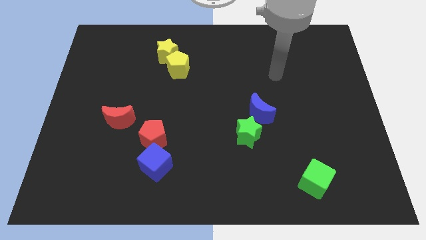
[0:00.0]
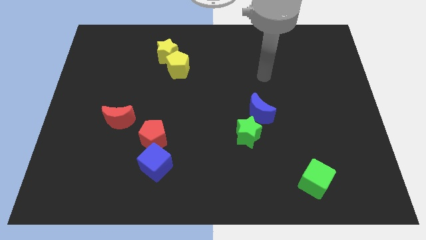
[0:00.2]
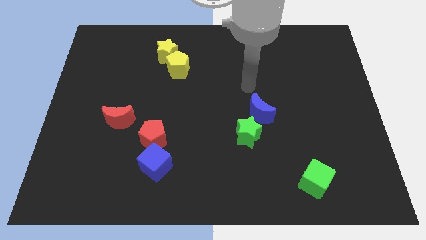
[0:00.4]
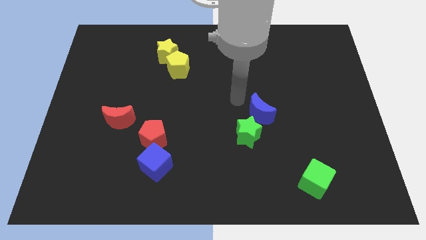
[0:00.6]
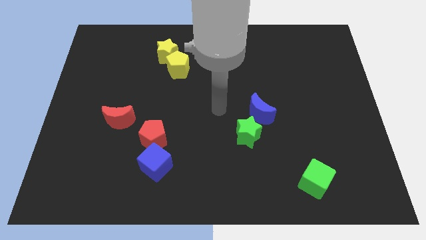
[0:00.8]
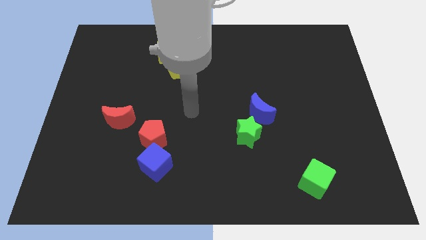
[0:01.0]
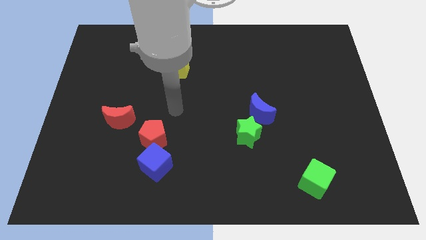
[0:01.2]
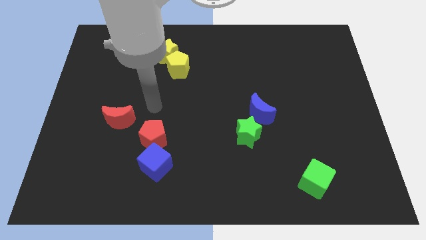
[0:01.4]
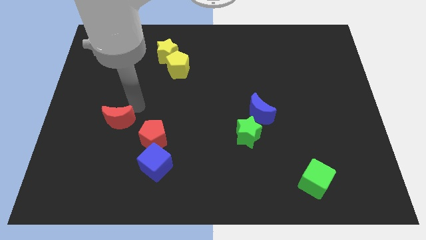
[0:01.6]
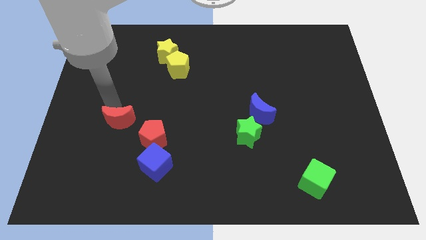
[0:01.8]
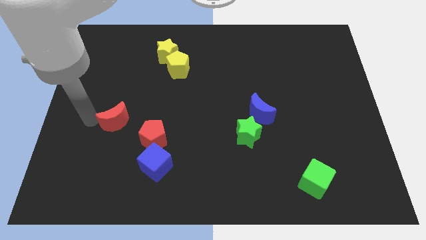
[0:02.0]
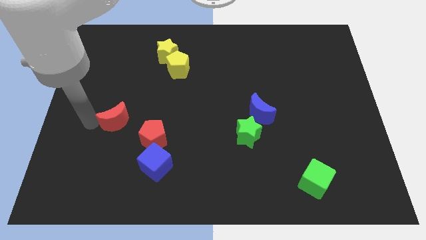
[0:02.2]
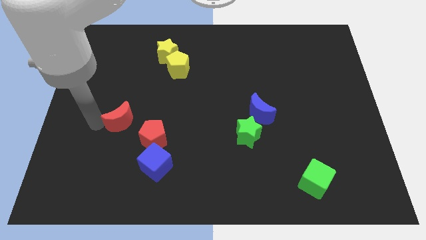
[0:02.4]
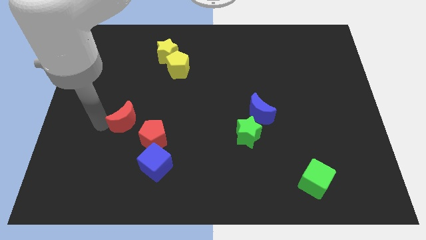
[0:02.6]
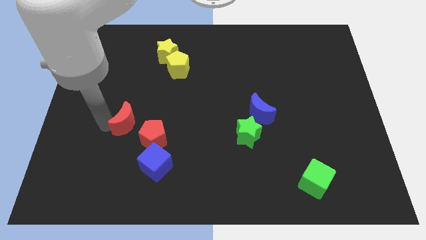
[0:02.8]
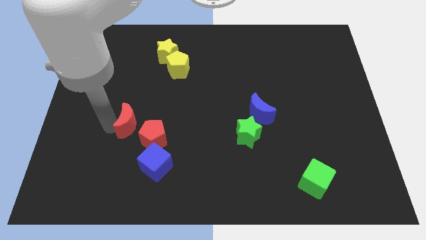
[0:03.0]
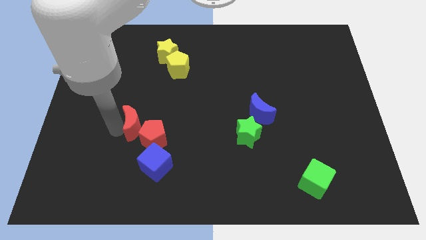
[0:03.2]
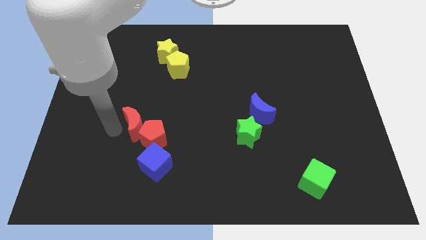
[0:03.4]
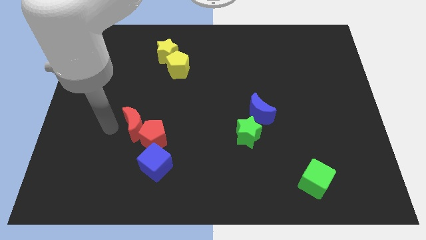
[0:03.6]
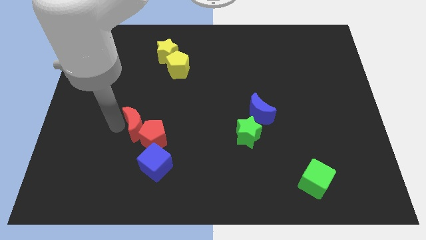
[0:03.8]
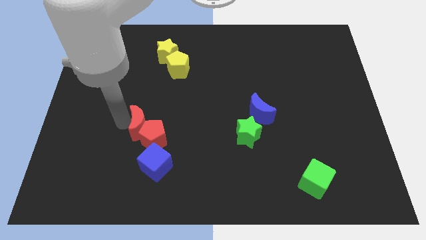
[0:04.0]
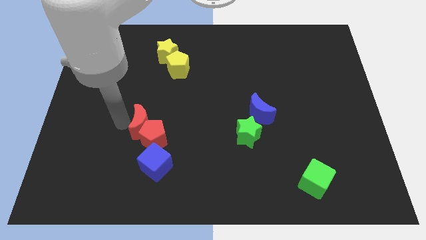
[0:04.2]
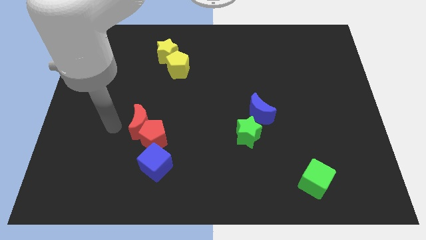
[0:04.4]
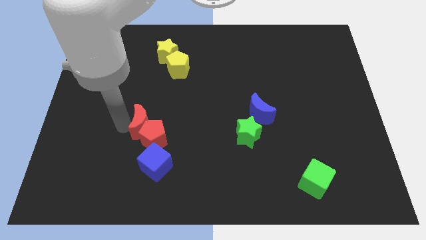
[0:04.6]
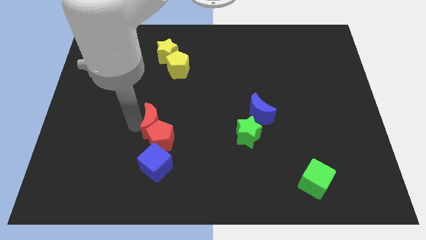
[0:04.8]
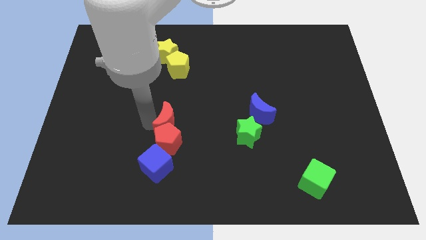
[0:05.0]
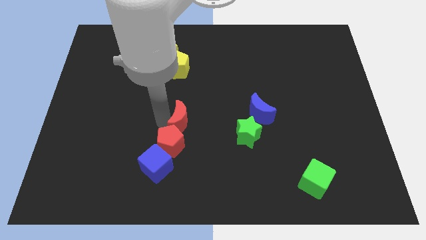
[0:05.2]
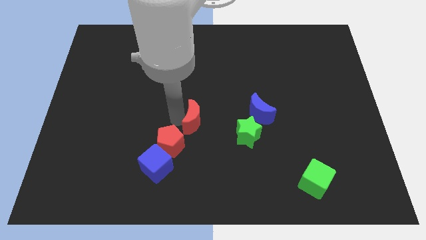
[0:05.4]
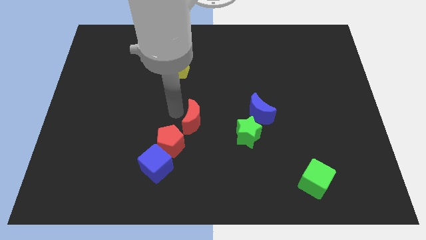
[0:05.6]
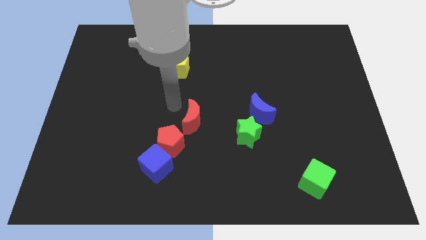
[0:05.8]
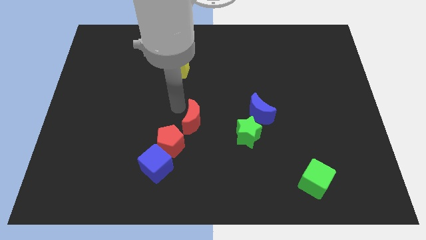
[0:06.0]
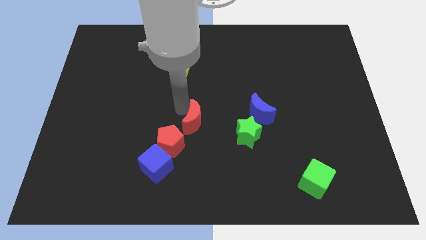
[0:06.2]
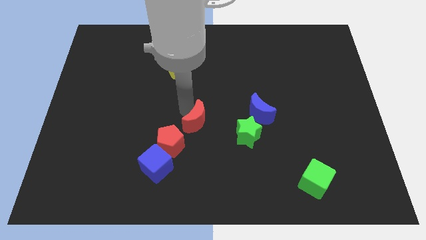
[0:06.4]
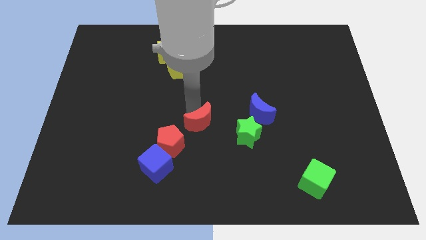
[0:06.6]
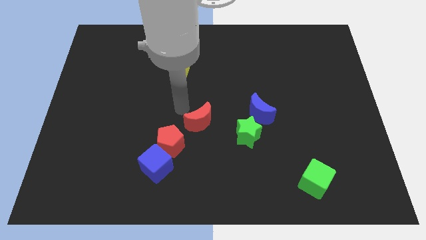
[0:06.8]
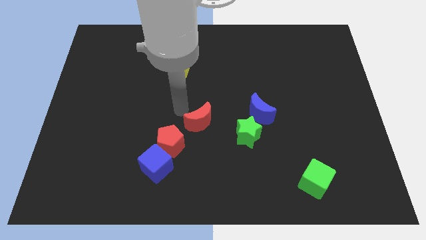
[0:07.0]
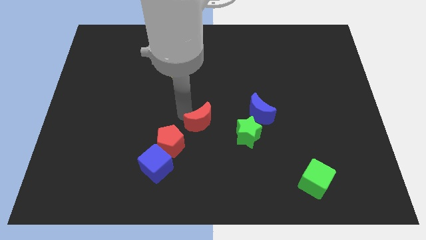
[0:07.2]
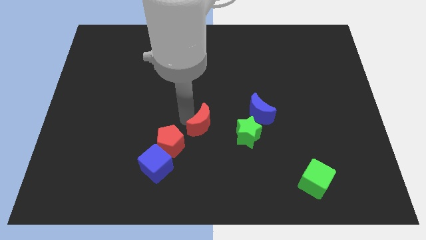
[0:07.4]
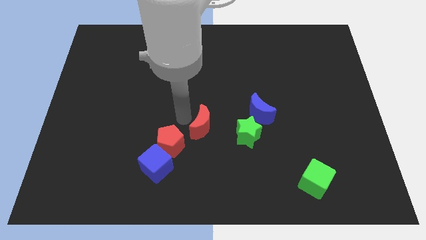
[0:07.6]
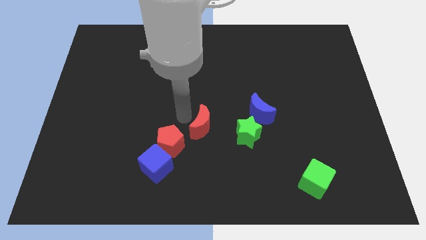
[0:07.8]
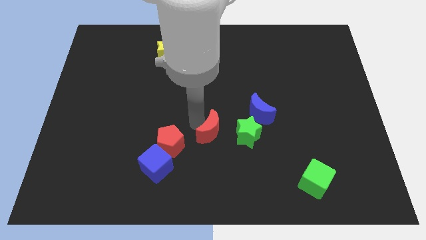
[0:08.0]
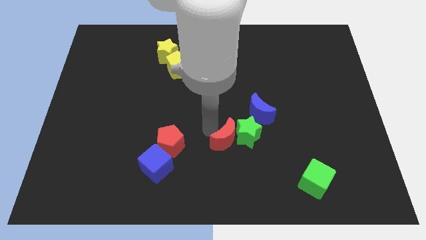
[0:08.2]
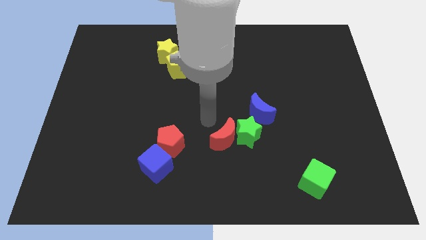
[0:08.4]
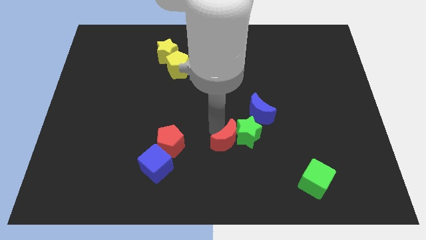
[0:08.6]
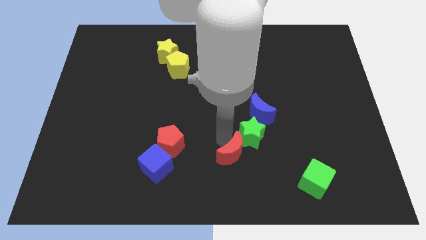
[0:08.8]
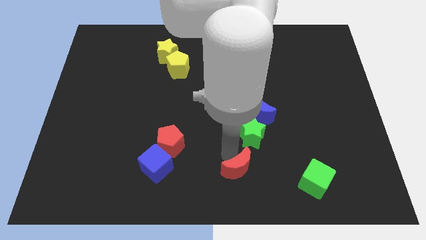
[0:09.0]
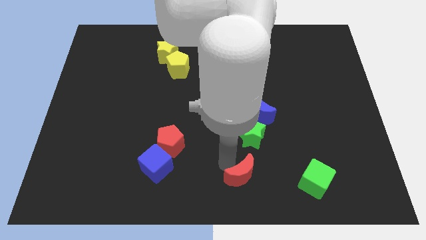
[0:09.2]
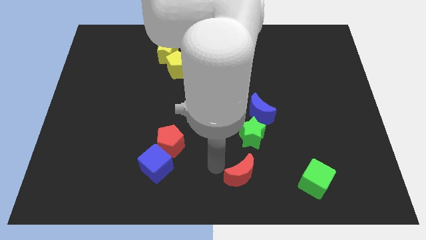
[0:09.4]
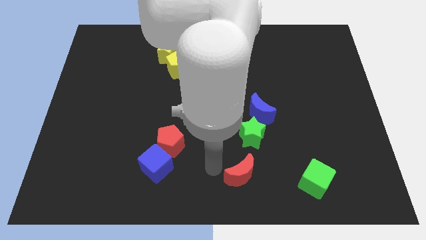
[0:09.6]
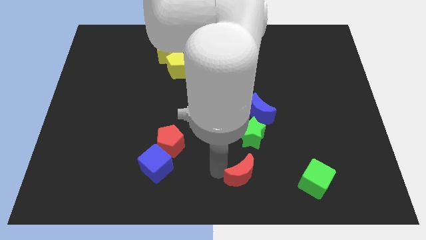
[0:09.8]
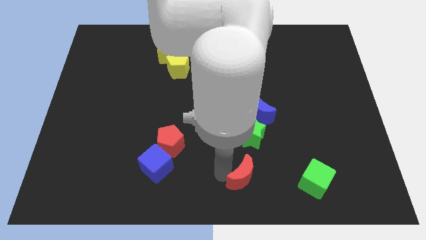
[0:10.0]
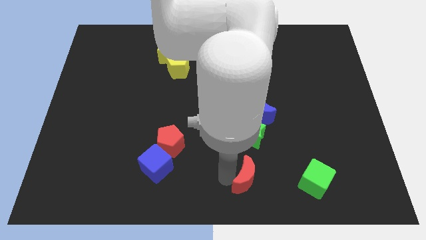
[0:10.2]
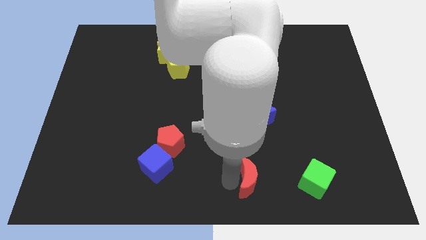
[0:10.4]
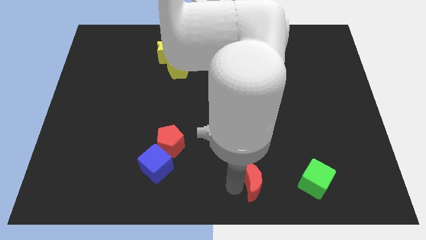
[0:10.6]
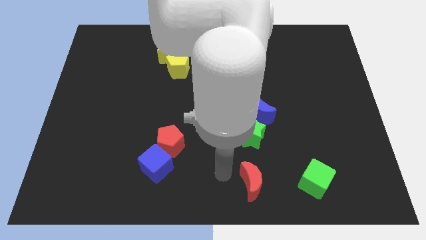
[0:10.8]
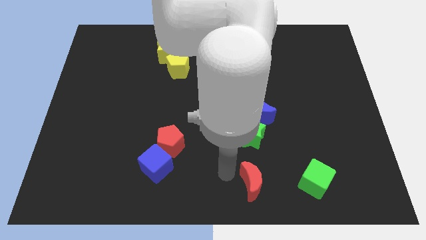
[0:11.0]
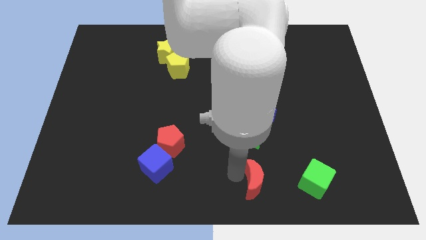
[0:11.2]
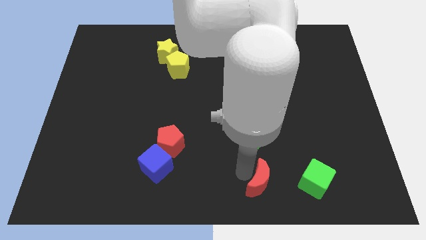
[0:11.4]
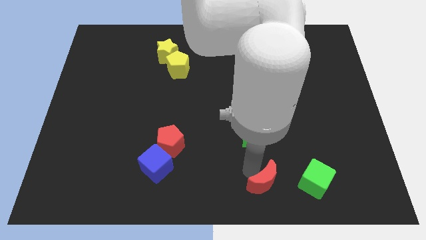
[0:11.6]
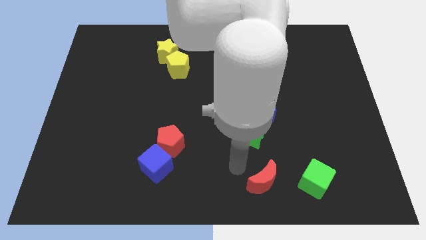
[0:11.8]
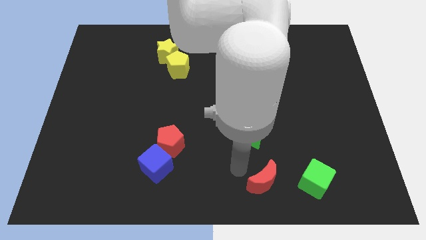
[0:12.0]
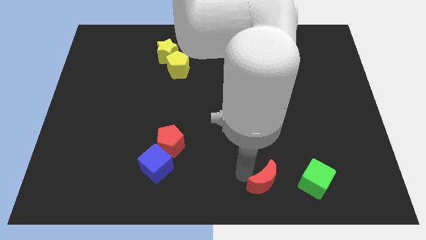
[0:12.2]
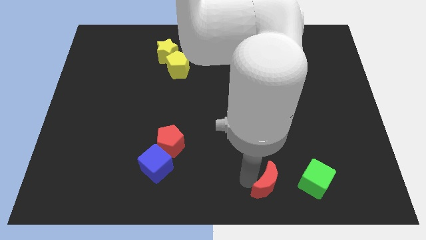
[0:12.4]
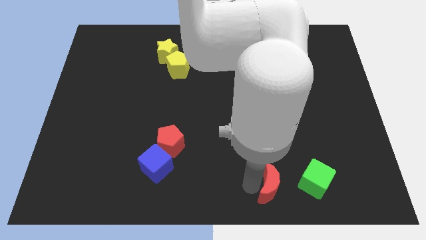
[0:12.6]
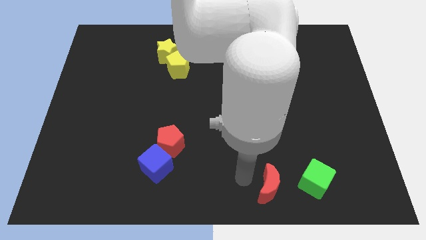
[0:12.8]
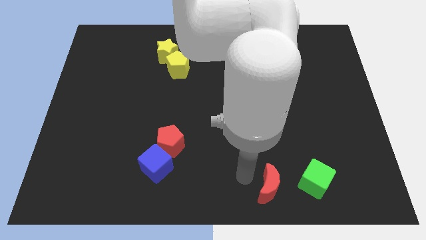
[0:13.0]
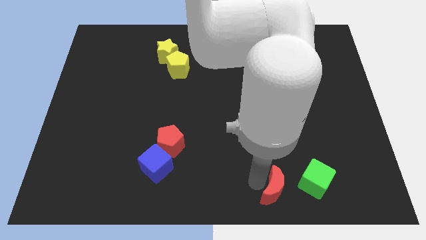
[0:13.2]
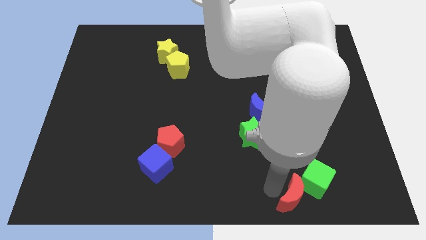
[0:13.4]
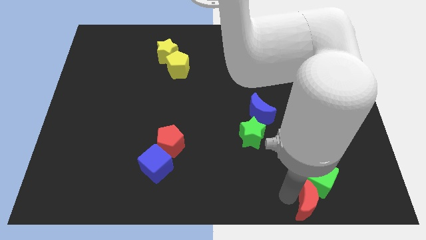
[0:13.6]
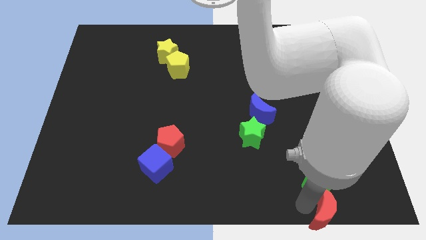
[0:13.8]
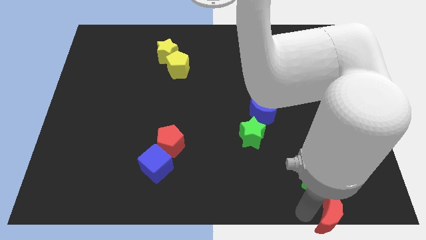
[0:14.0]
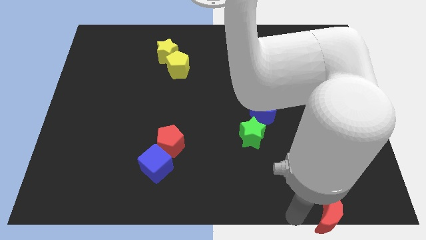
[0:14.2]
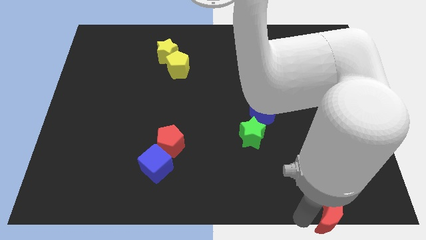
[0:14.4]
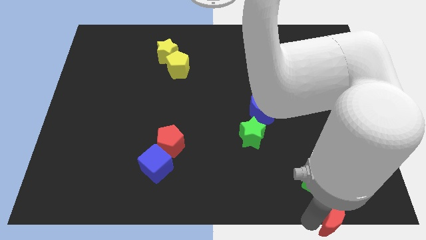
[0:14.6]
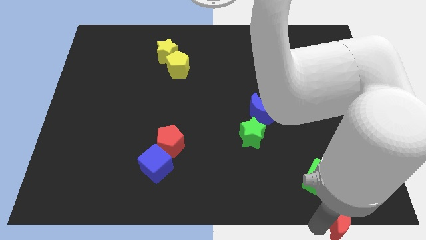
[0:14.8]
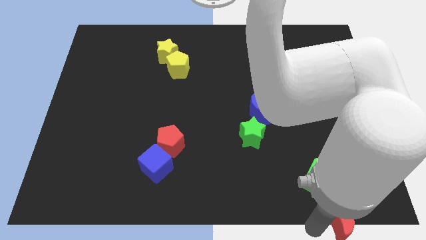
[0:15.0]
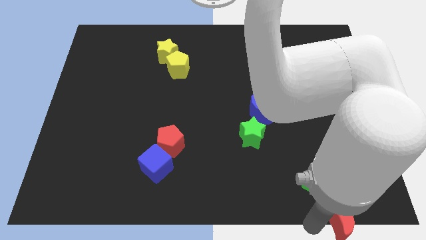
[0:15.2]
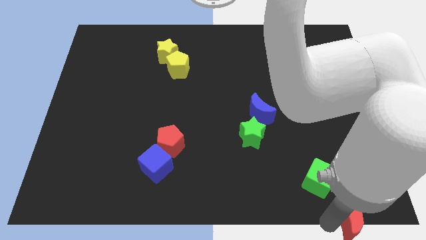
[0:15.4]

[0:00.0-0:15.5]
put the red moon to the bottom right corner
